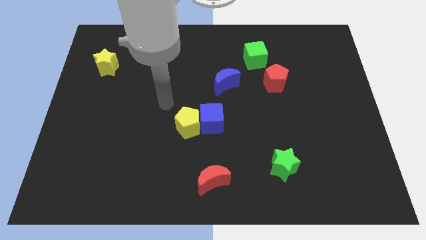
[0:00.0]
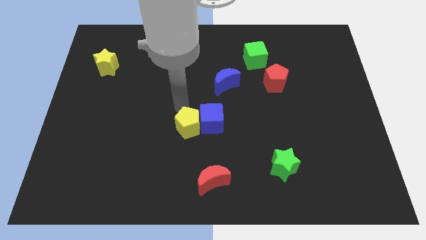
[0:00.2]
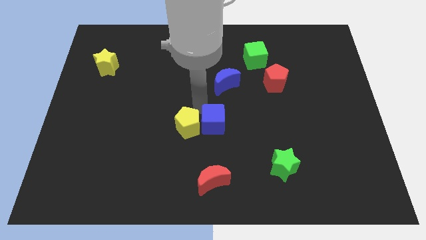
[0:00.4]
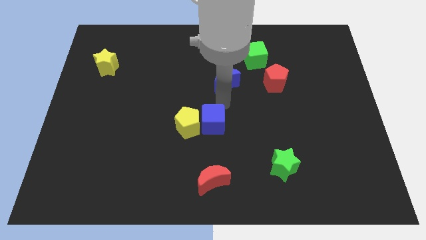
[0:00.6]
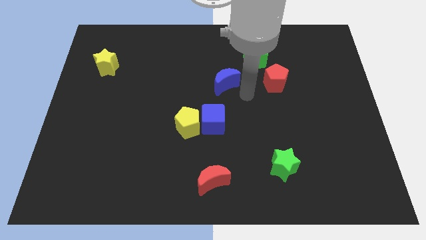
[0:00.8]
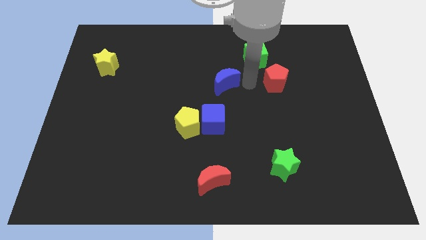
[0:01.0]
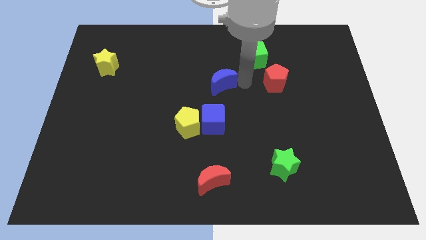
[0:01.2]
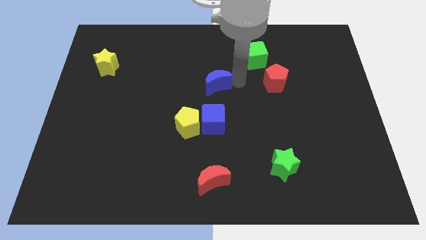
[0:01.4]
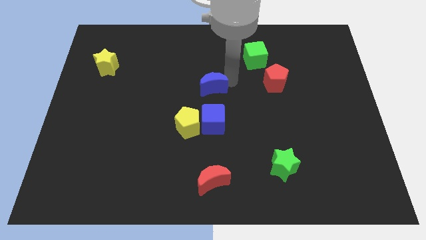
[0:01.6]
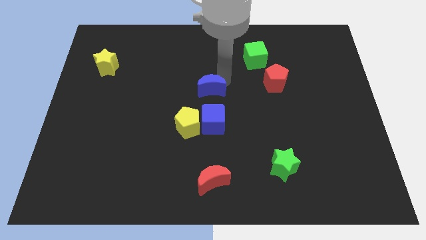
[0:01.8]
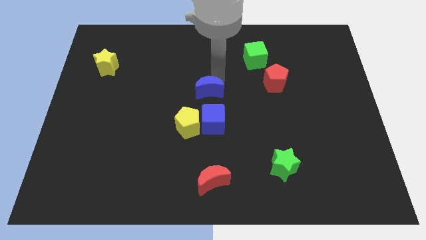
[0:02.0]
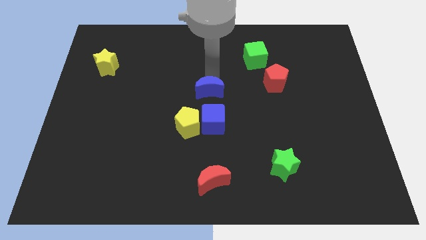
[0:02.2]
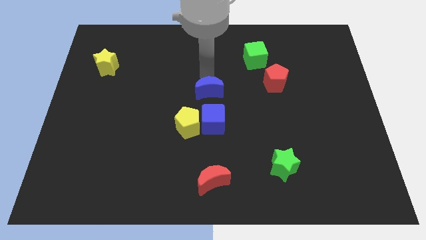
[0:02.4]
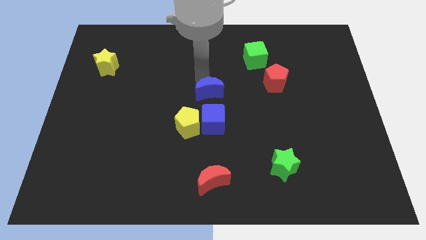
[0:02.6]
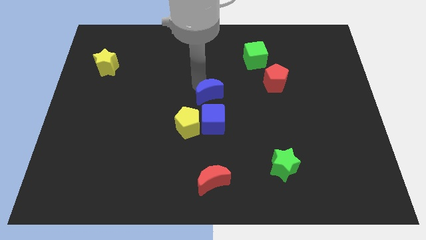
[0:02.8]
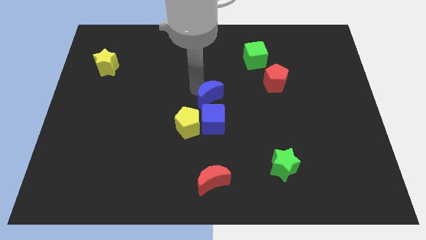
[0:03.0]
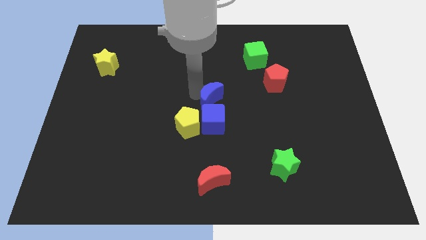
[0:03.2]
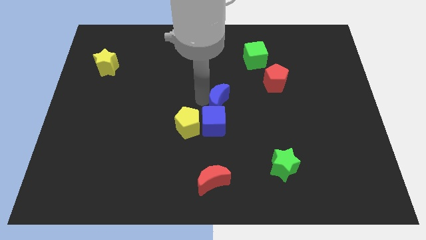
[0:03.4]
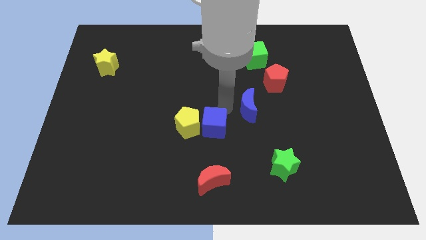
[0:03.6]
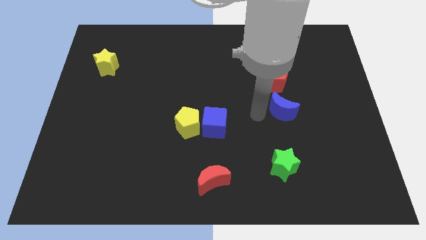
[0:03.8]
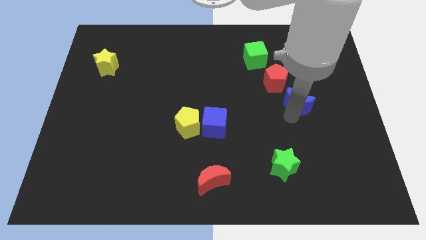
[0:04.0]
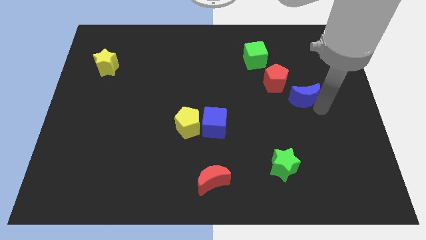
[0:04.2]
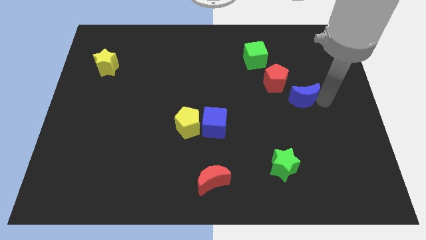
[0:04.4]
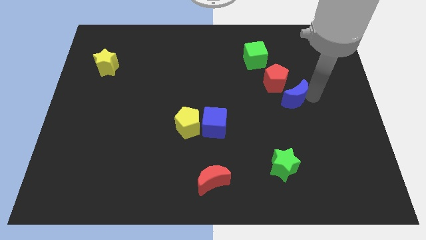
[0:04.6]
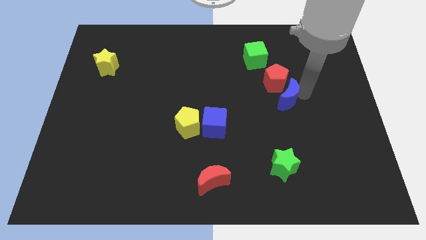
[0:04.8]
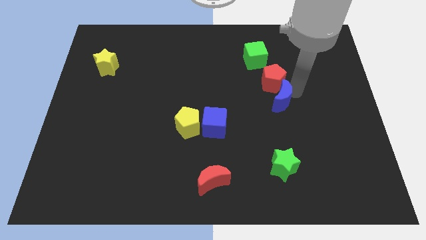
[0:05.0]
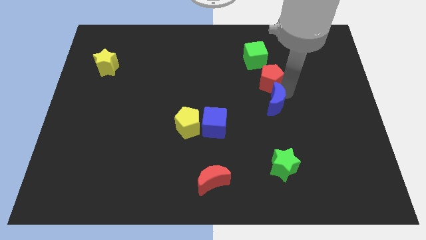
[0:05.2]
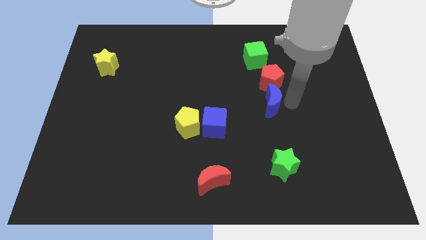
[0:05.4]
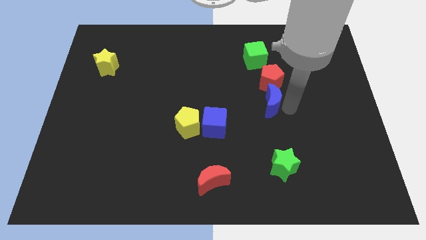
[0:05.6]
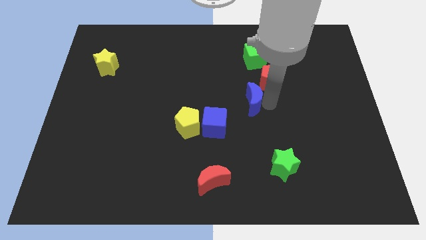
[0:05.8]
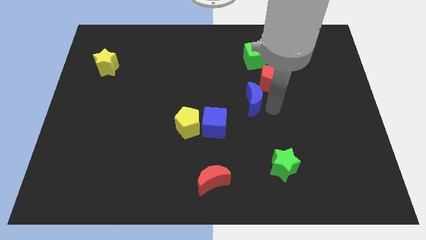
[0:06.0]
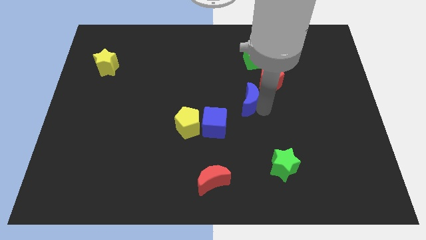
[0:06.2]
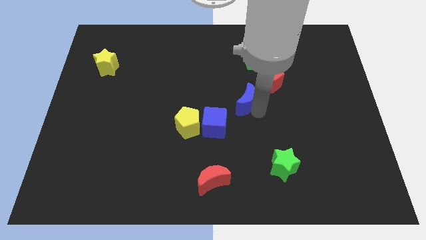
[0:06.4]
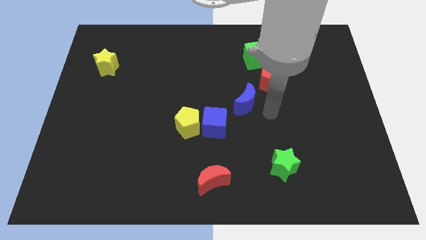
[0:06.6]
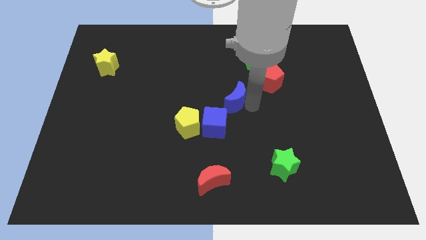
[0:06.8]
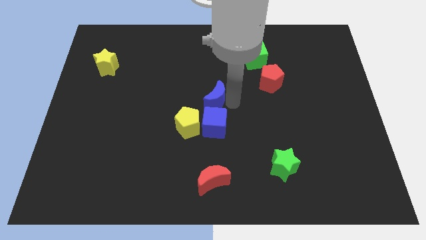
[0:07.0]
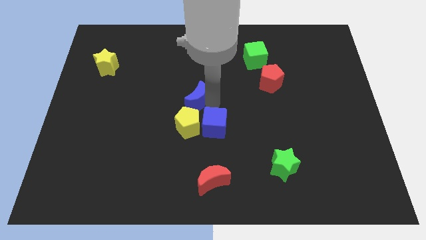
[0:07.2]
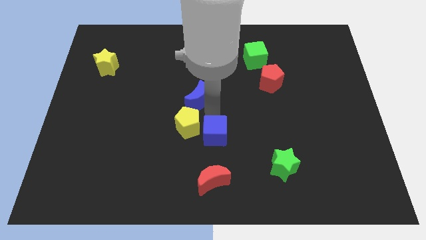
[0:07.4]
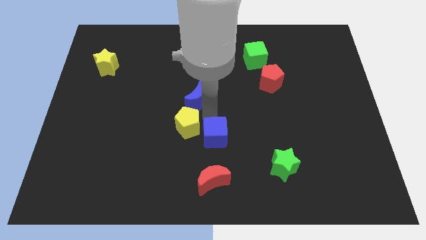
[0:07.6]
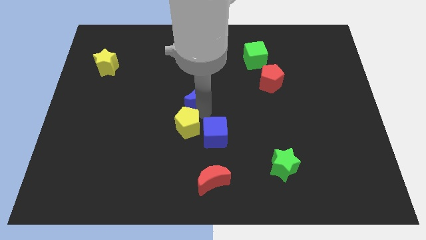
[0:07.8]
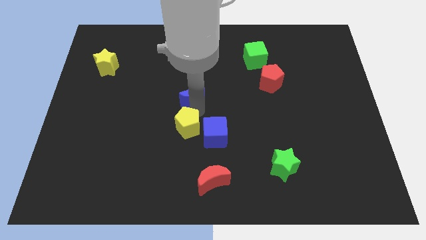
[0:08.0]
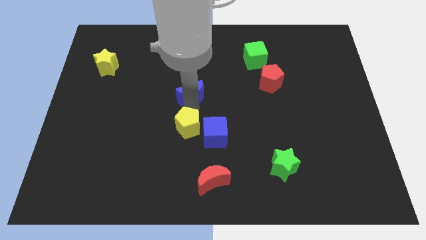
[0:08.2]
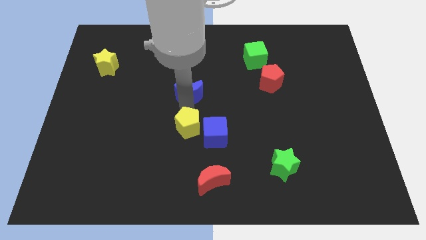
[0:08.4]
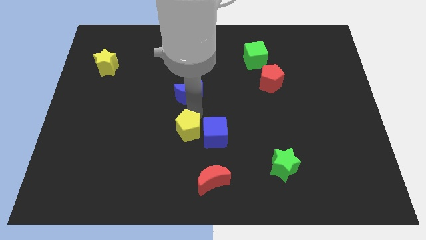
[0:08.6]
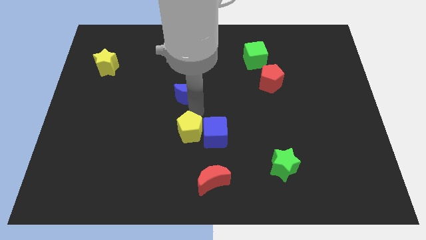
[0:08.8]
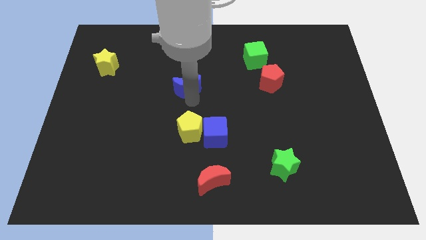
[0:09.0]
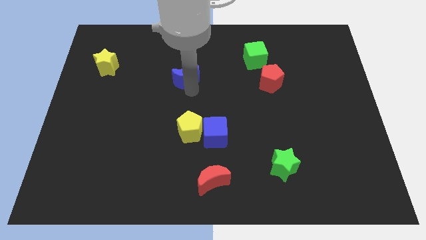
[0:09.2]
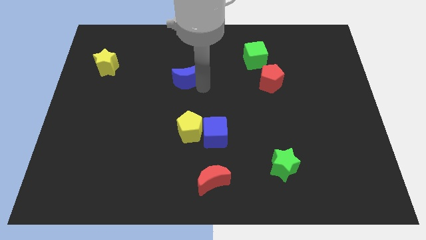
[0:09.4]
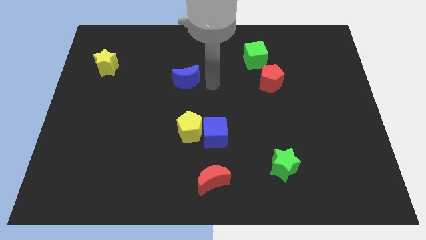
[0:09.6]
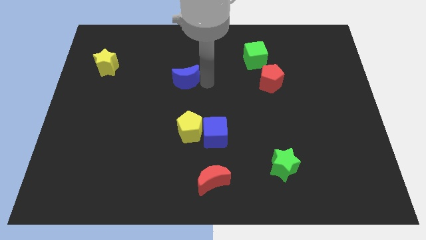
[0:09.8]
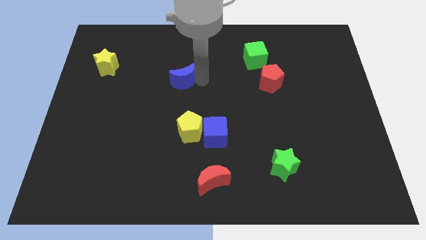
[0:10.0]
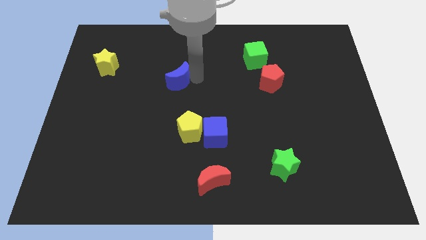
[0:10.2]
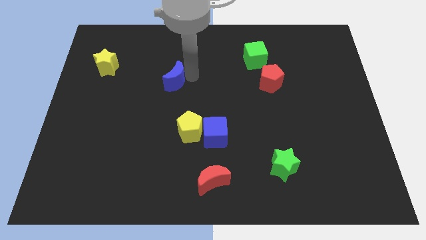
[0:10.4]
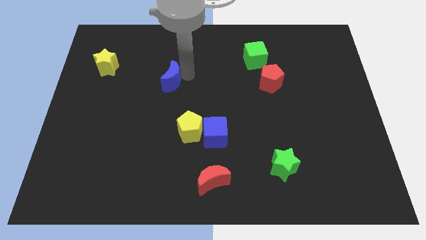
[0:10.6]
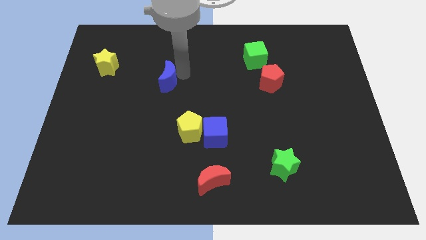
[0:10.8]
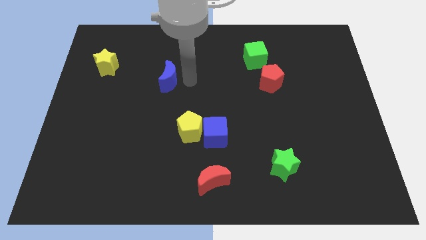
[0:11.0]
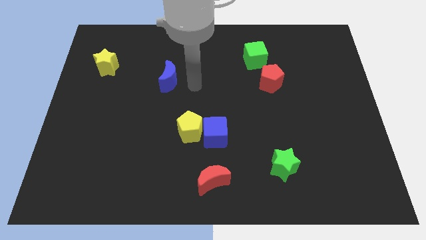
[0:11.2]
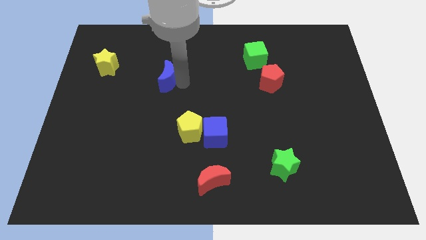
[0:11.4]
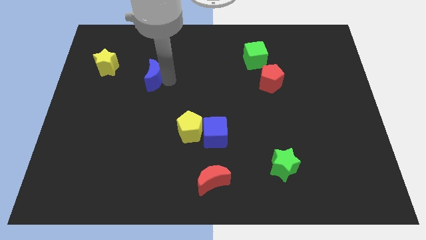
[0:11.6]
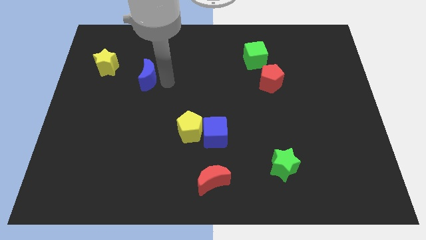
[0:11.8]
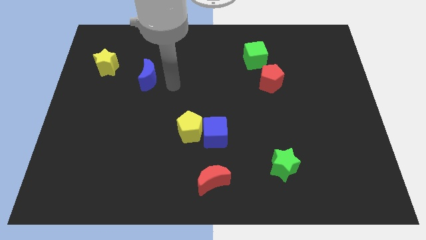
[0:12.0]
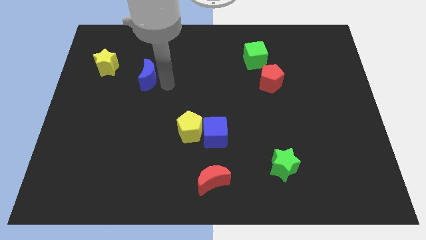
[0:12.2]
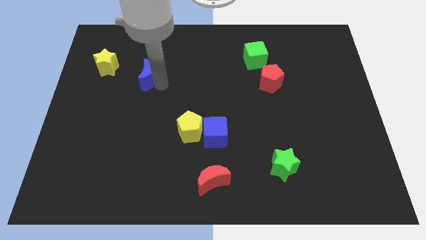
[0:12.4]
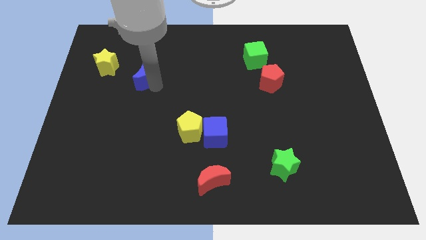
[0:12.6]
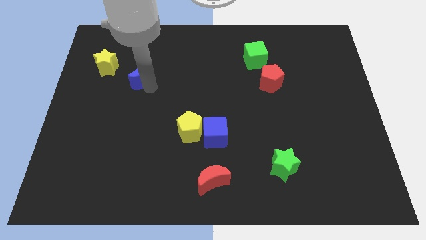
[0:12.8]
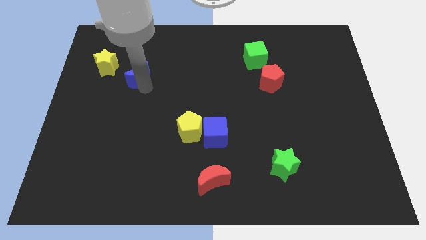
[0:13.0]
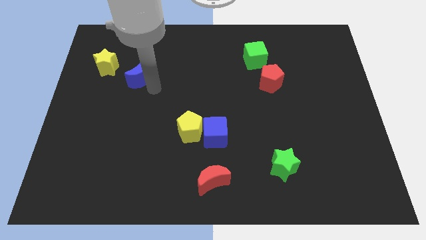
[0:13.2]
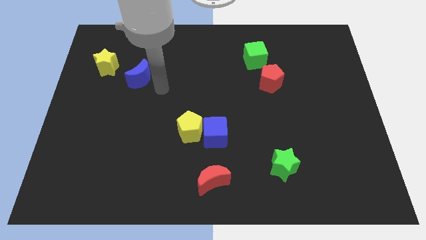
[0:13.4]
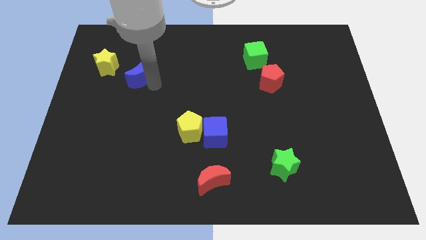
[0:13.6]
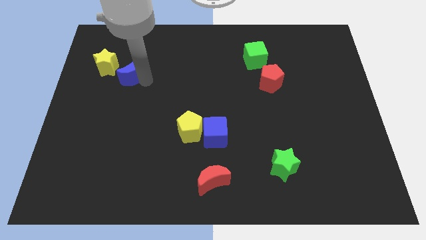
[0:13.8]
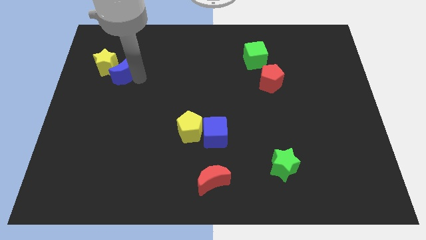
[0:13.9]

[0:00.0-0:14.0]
slide the blue moon close to the yellow star
